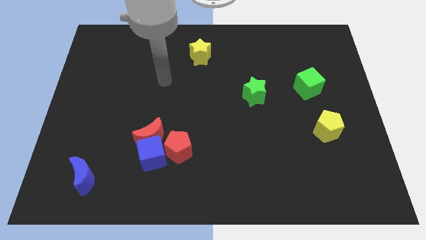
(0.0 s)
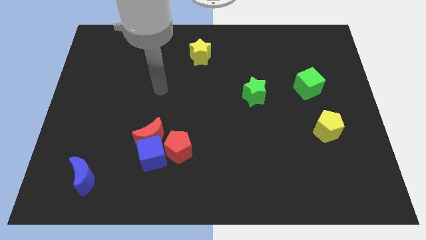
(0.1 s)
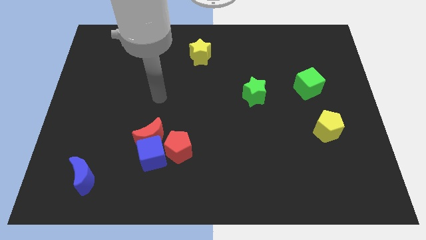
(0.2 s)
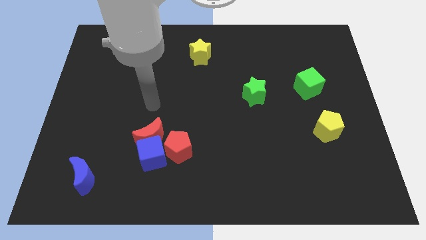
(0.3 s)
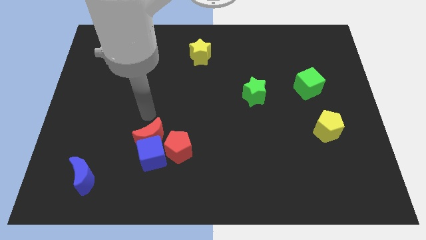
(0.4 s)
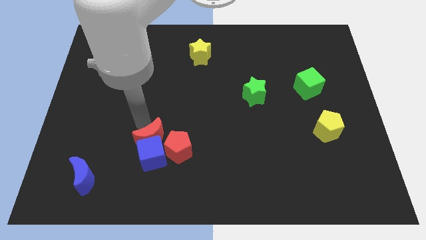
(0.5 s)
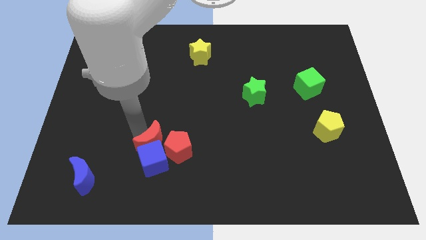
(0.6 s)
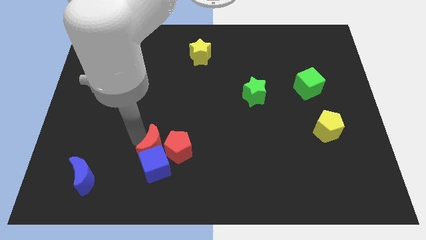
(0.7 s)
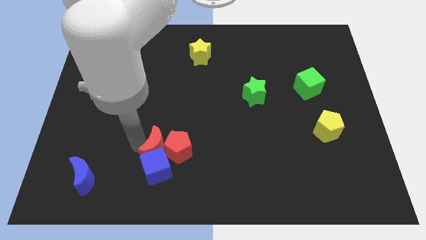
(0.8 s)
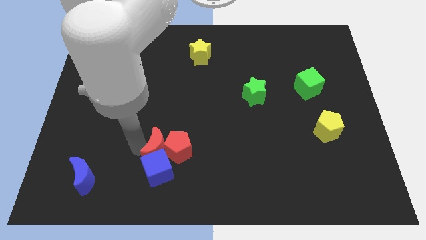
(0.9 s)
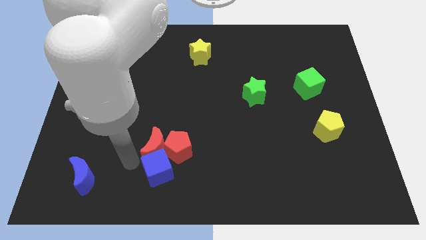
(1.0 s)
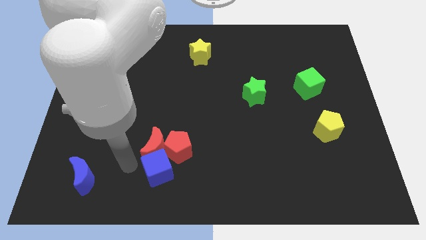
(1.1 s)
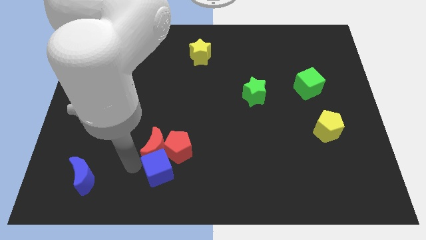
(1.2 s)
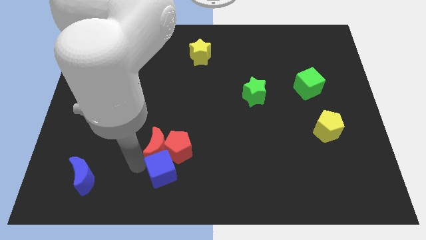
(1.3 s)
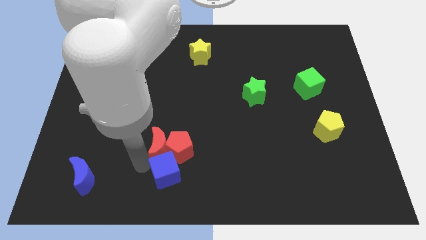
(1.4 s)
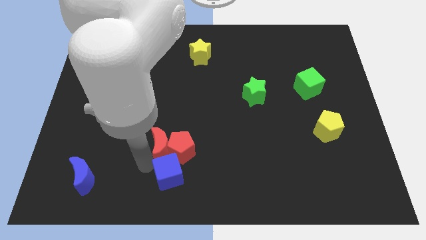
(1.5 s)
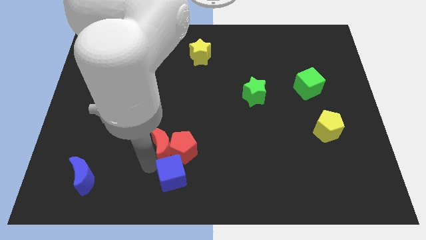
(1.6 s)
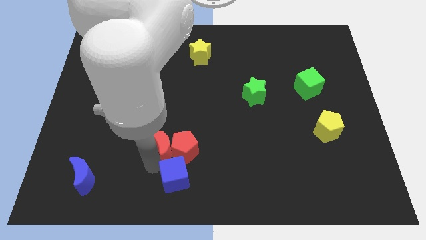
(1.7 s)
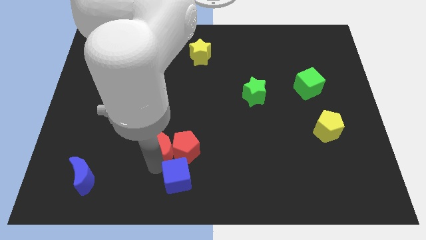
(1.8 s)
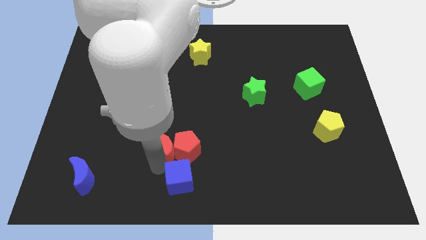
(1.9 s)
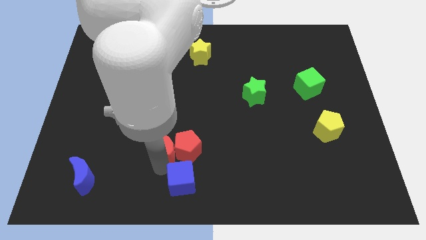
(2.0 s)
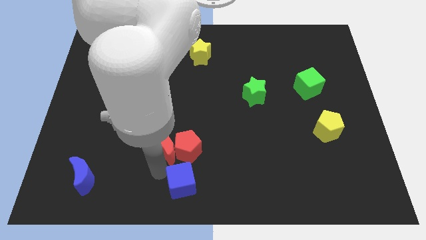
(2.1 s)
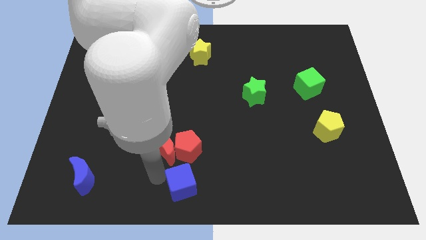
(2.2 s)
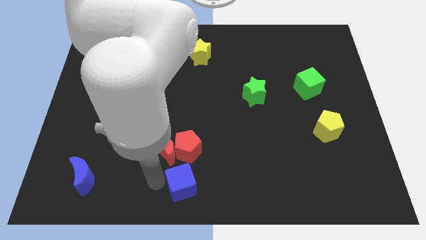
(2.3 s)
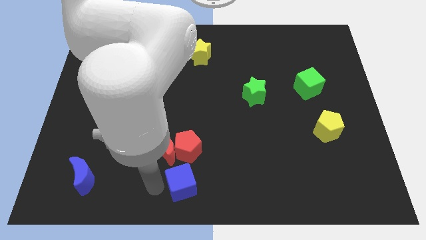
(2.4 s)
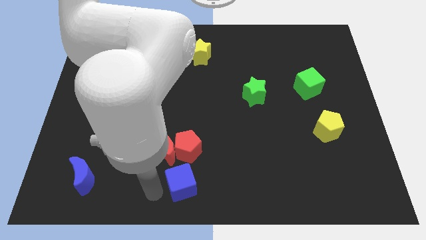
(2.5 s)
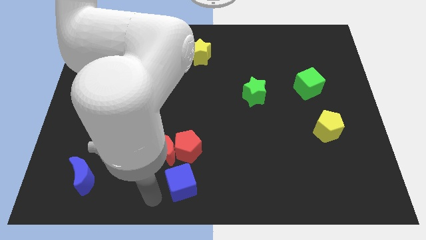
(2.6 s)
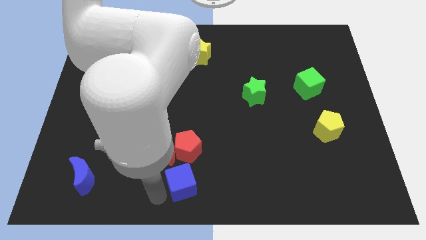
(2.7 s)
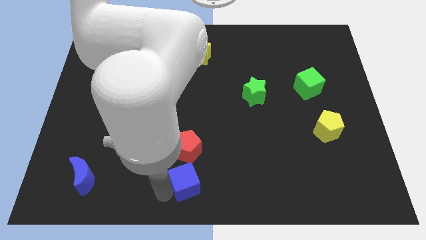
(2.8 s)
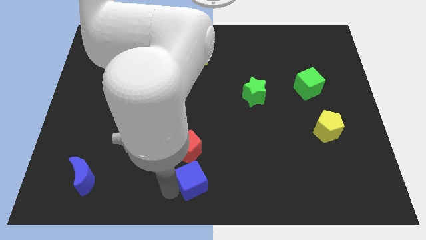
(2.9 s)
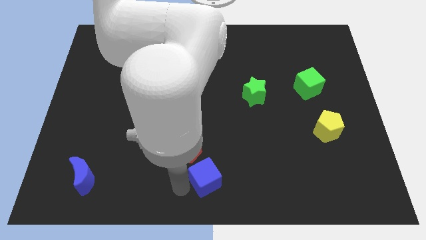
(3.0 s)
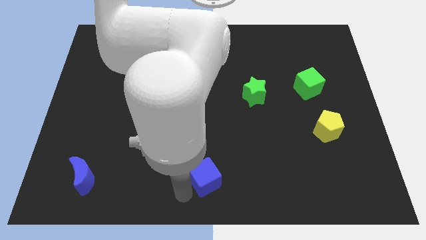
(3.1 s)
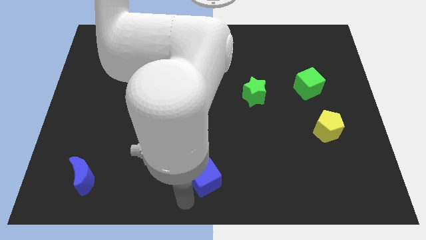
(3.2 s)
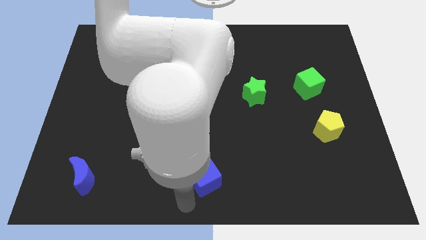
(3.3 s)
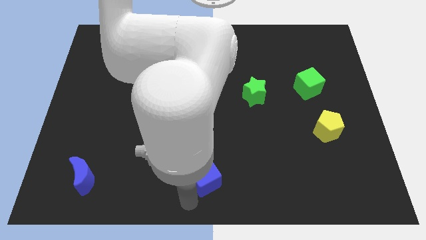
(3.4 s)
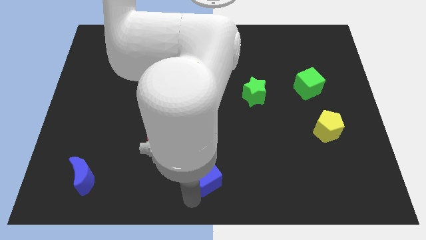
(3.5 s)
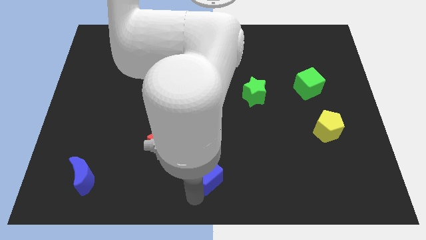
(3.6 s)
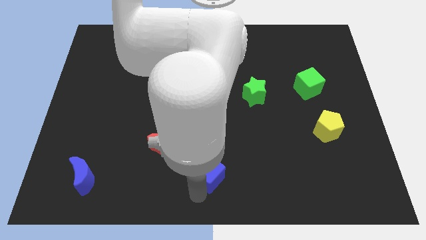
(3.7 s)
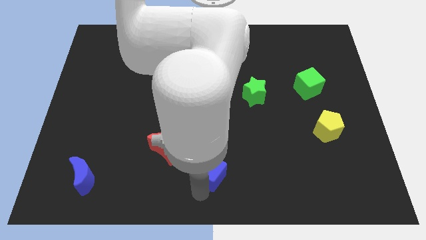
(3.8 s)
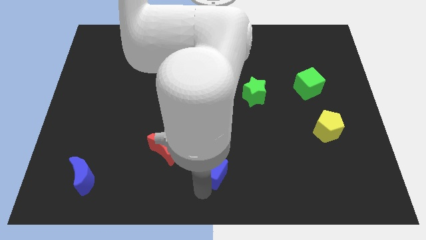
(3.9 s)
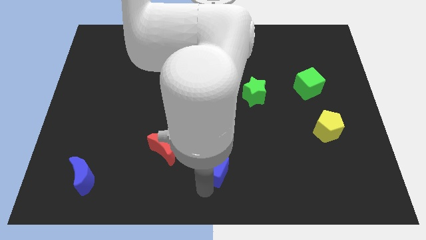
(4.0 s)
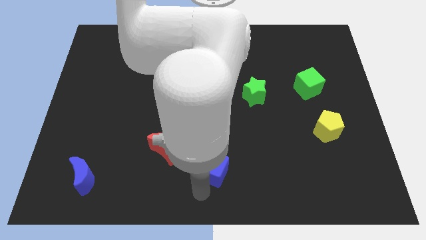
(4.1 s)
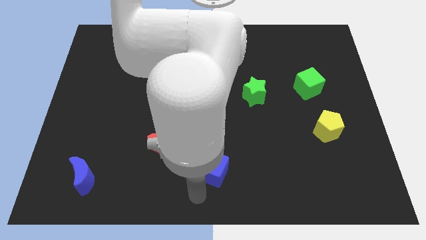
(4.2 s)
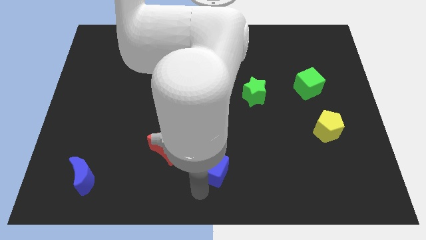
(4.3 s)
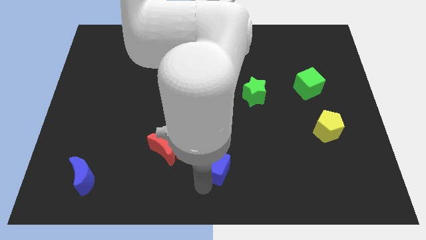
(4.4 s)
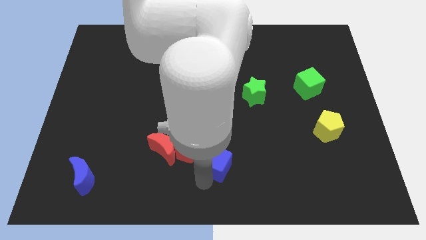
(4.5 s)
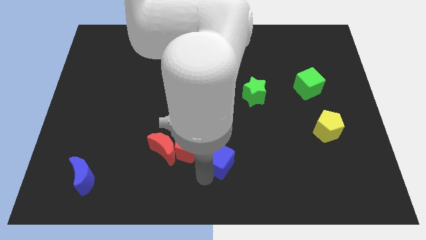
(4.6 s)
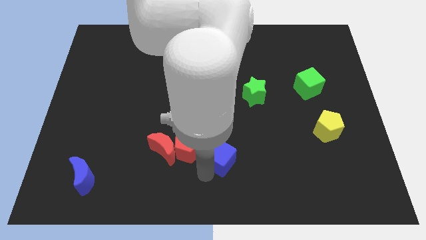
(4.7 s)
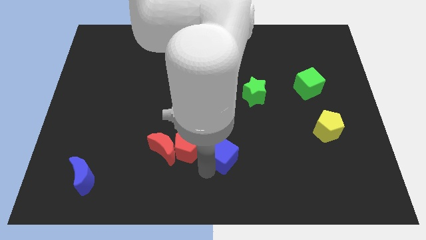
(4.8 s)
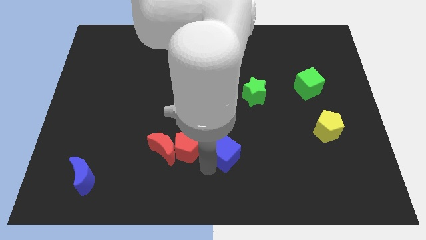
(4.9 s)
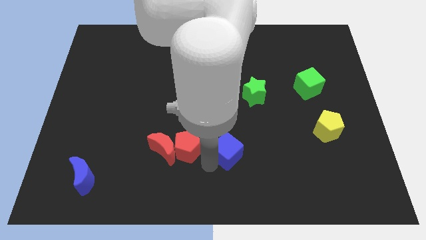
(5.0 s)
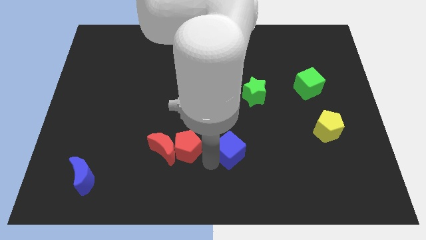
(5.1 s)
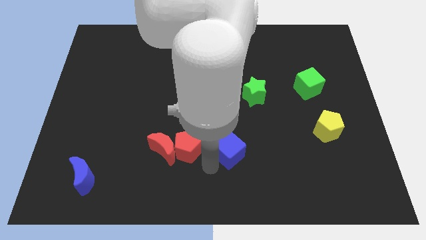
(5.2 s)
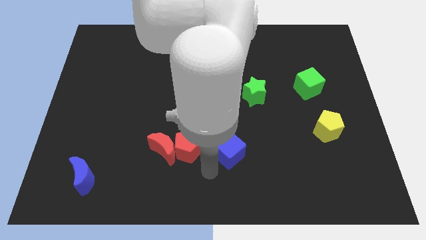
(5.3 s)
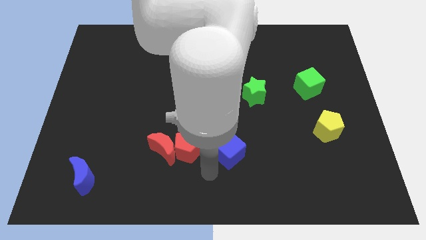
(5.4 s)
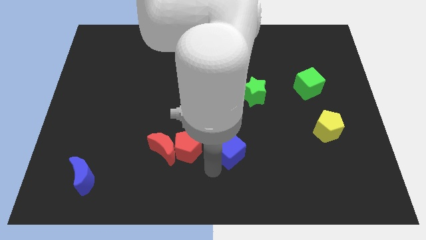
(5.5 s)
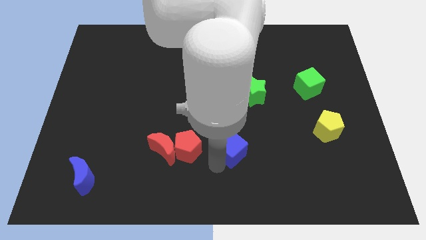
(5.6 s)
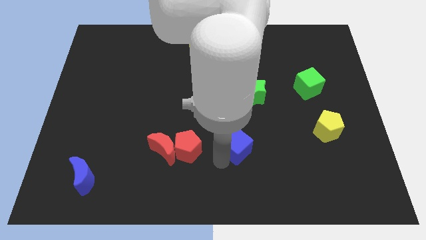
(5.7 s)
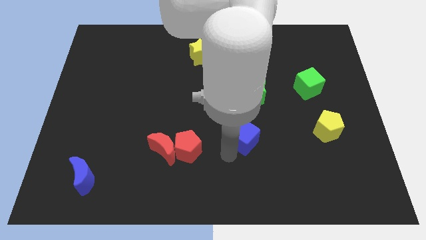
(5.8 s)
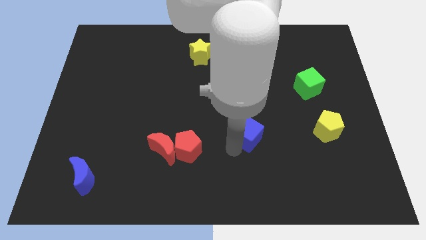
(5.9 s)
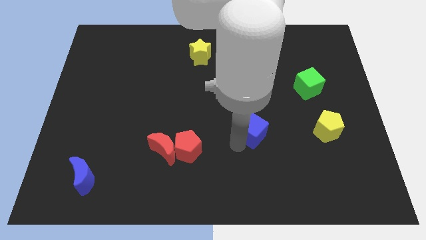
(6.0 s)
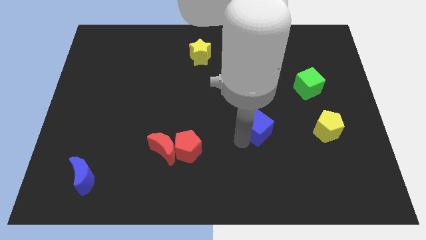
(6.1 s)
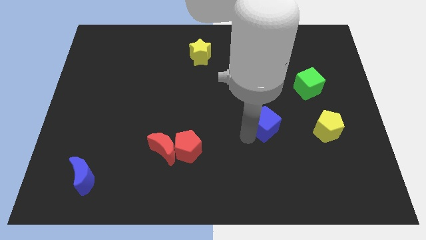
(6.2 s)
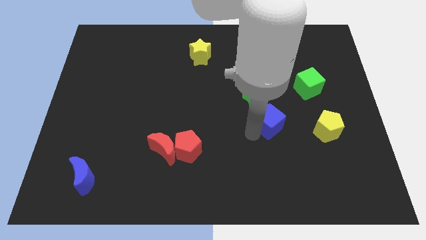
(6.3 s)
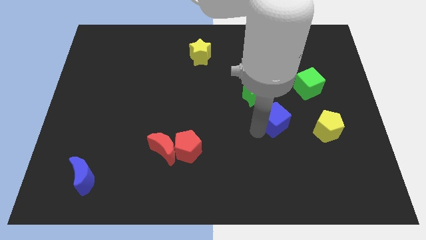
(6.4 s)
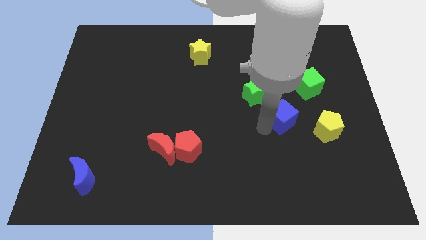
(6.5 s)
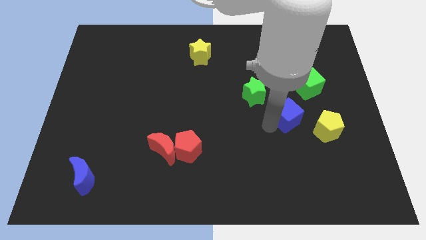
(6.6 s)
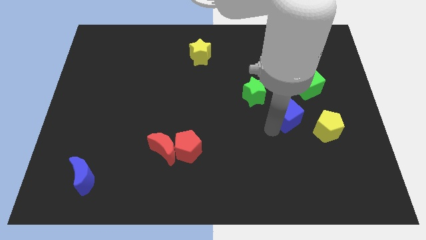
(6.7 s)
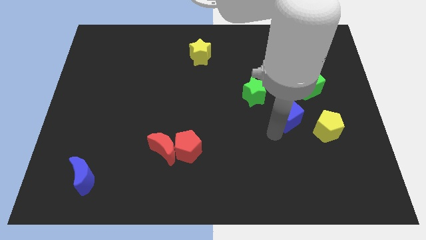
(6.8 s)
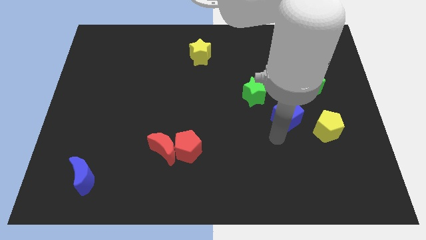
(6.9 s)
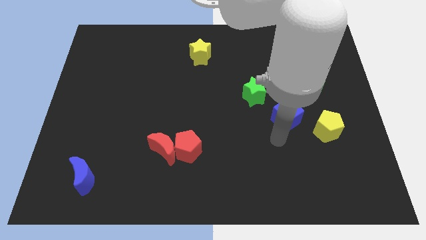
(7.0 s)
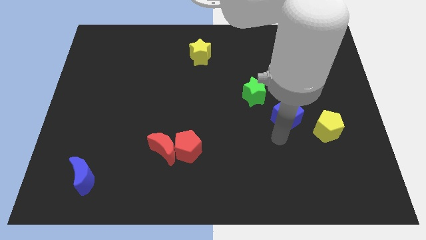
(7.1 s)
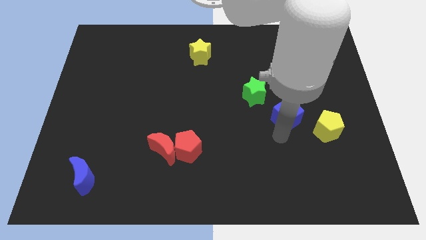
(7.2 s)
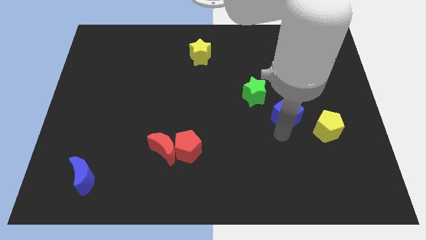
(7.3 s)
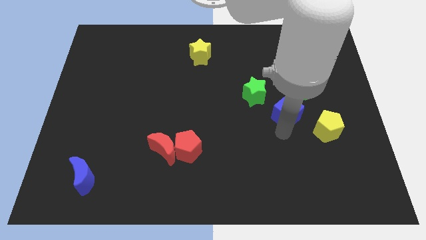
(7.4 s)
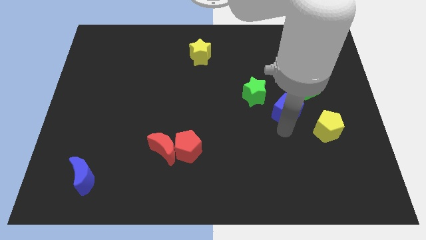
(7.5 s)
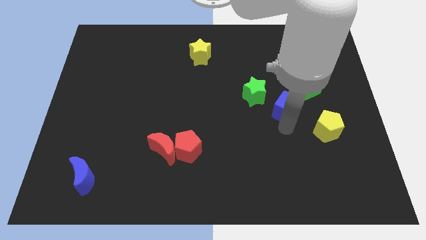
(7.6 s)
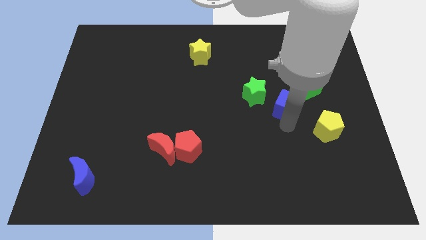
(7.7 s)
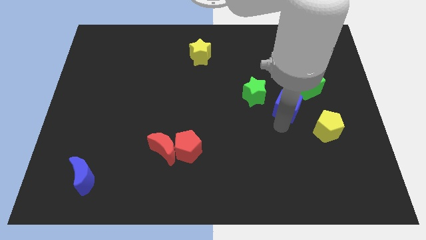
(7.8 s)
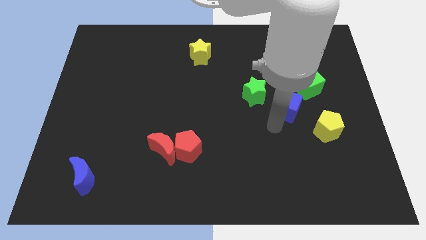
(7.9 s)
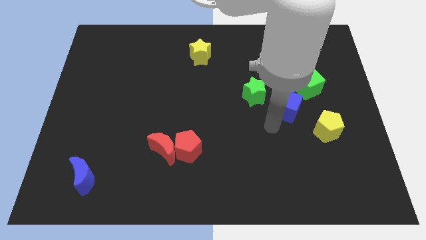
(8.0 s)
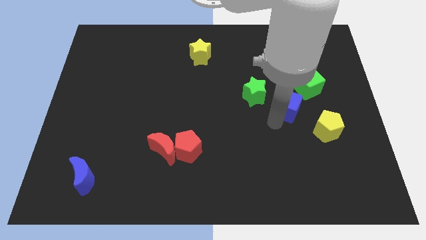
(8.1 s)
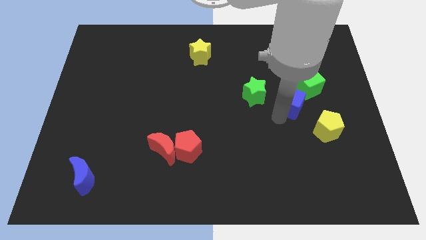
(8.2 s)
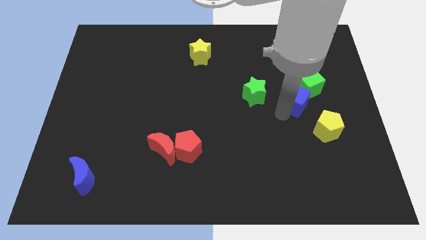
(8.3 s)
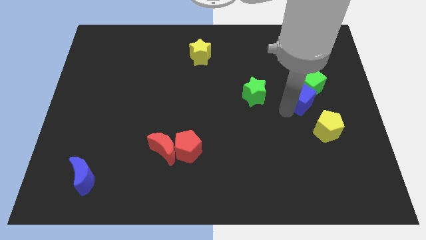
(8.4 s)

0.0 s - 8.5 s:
slide the blue cube to the green cube
